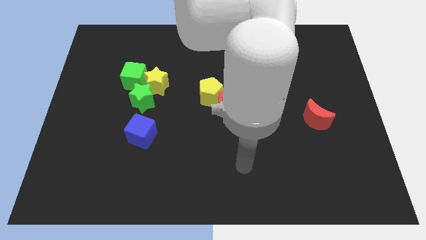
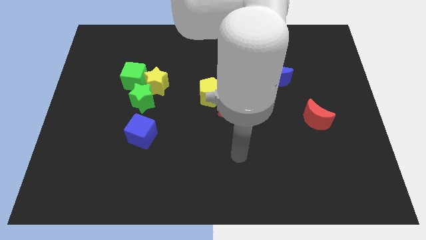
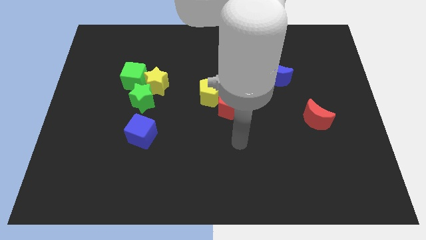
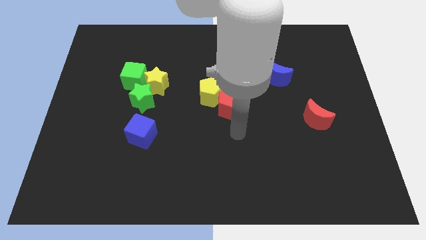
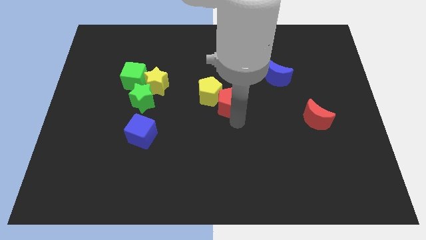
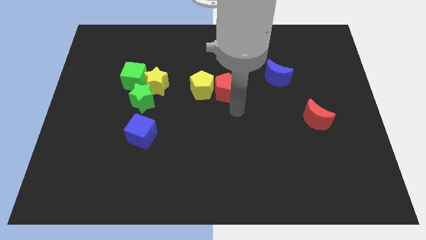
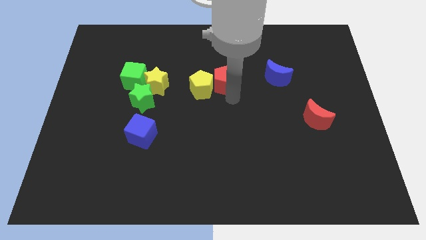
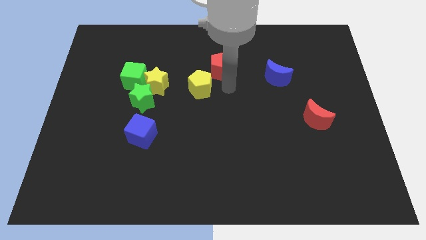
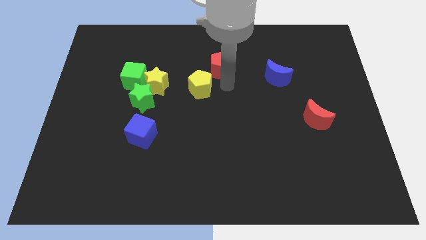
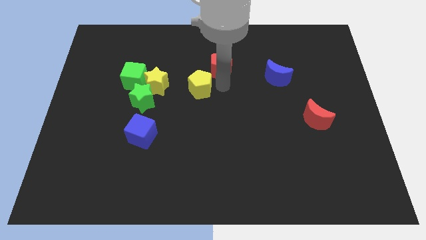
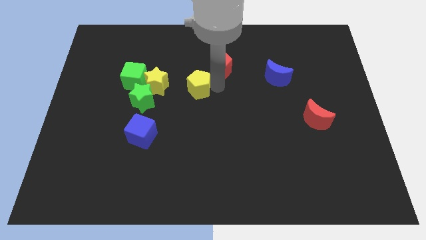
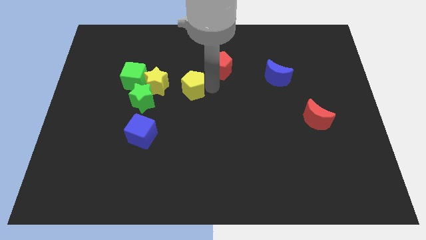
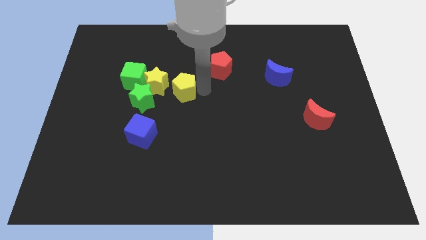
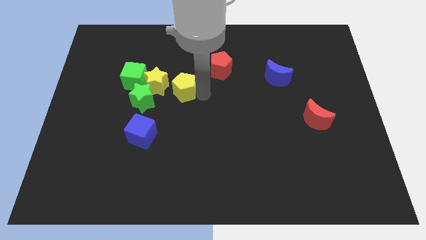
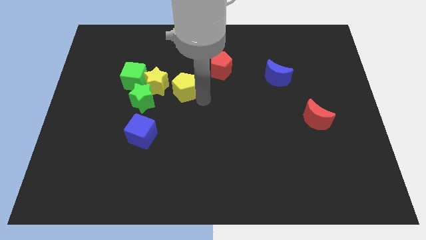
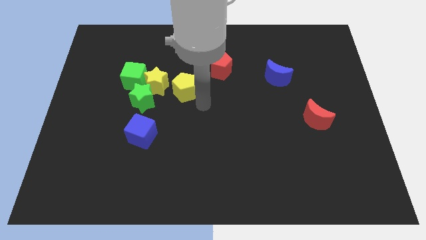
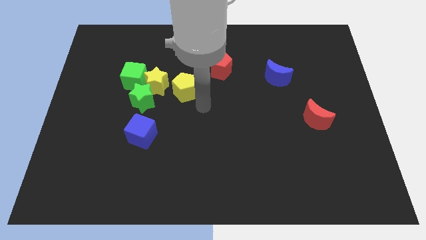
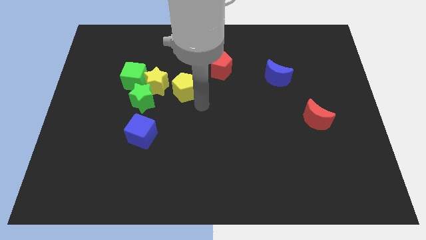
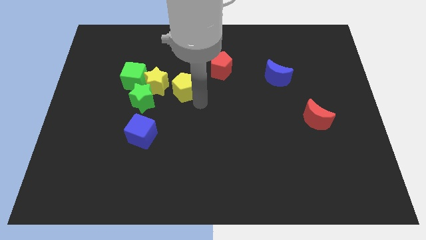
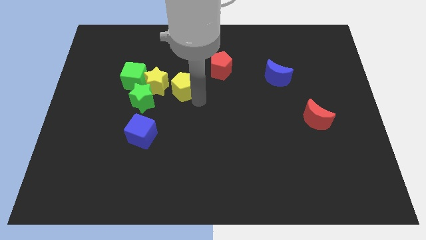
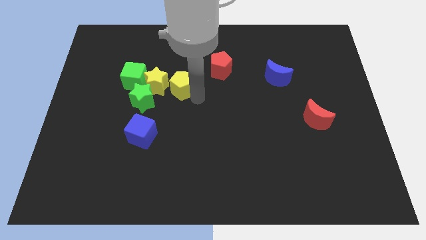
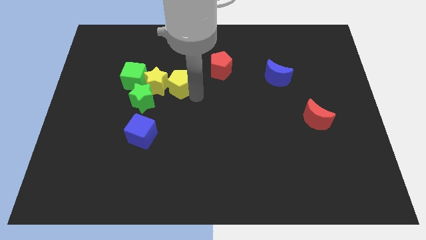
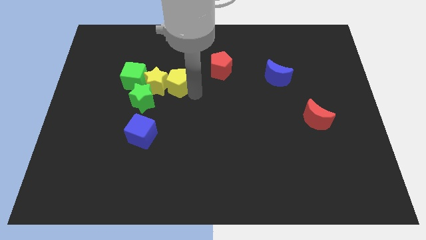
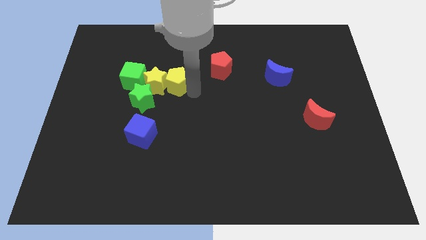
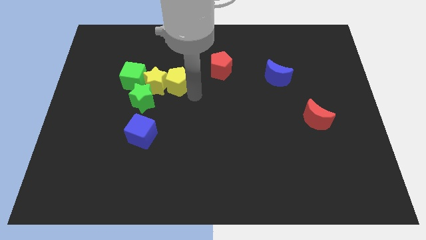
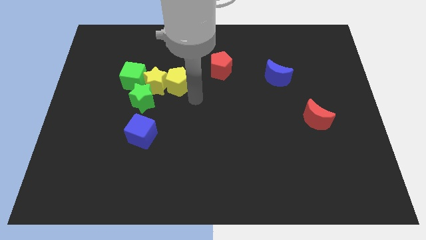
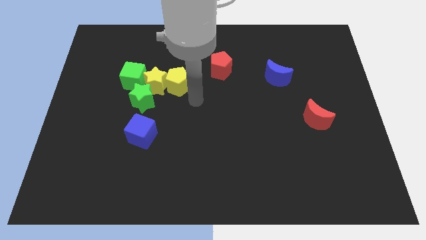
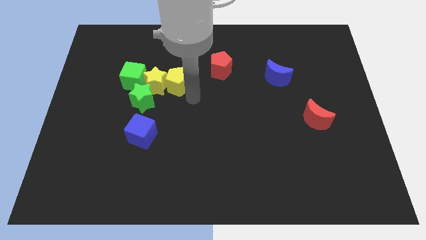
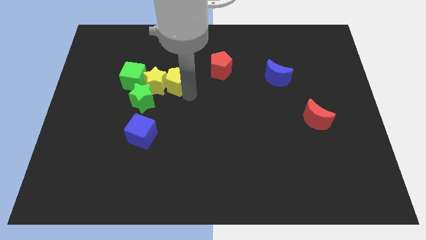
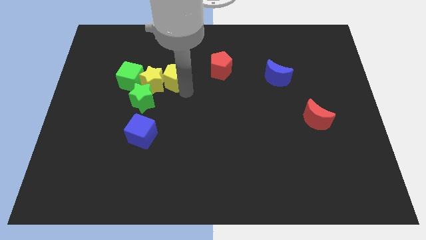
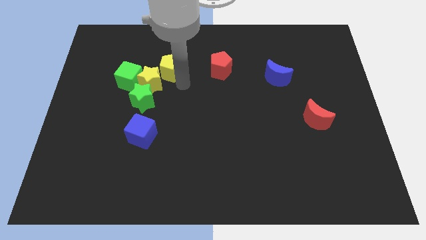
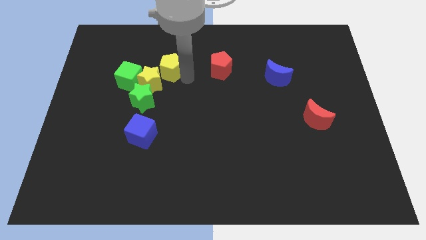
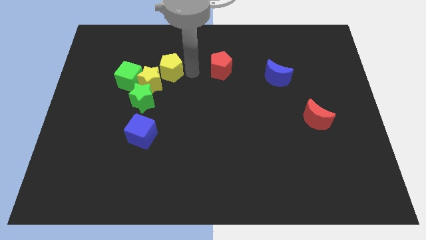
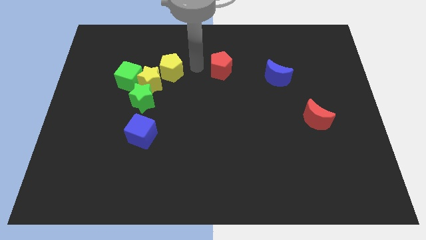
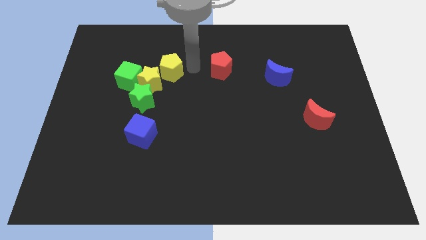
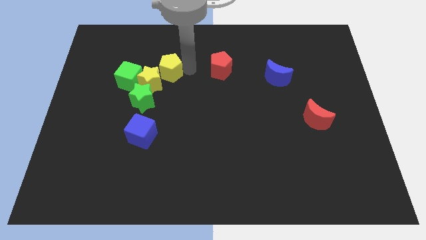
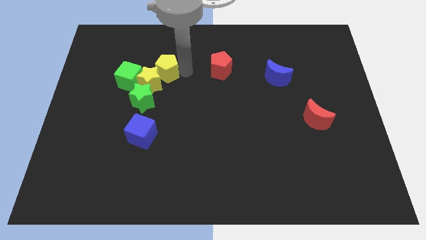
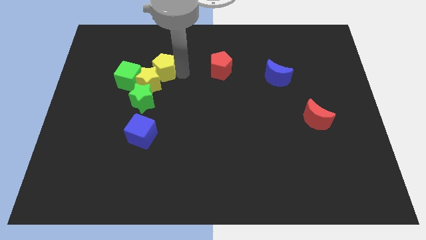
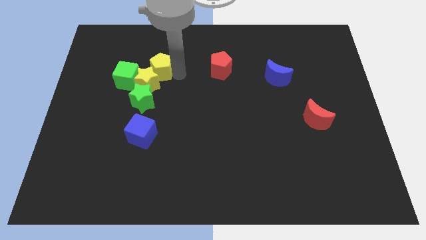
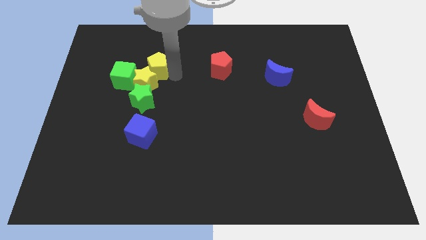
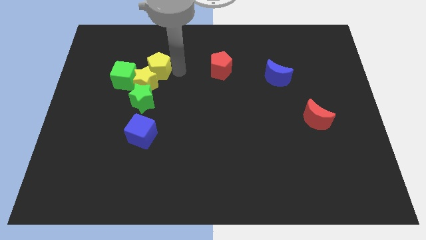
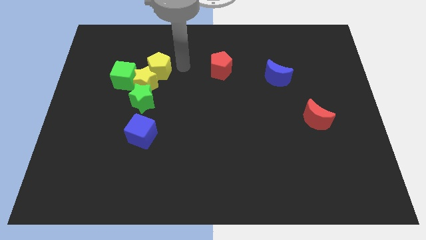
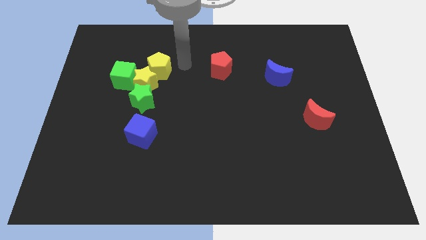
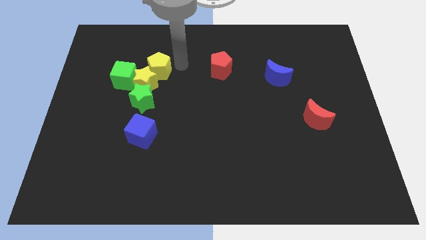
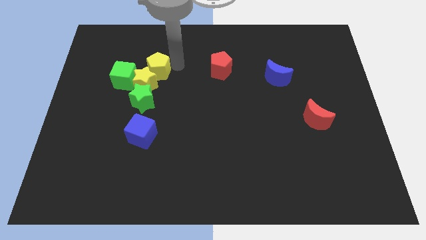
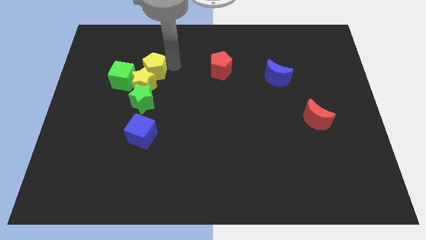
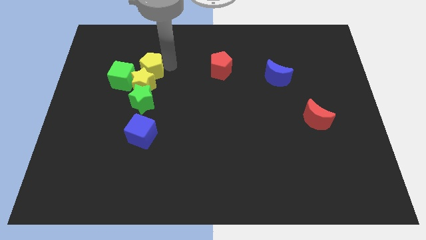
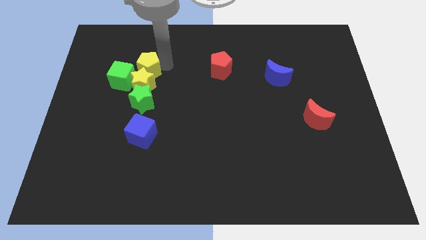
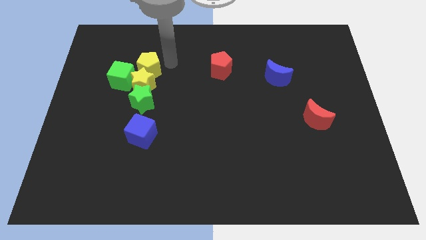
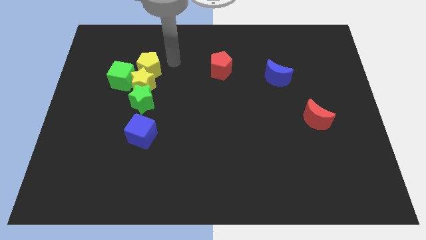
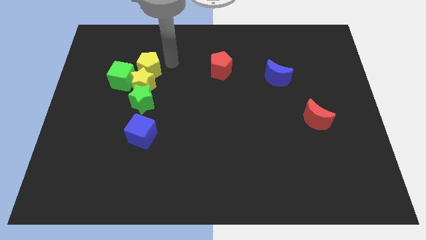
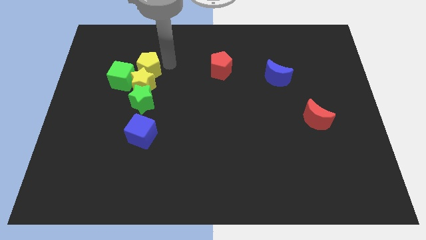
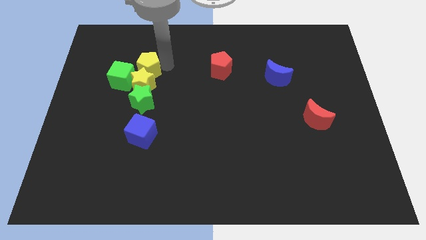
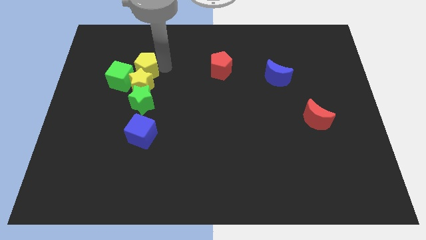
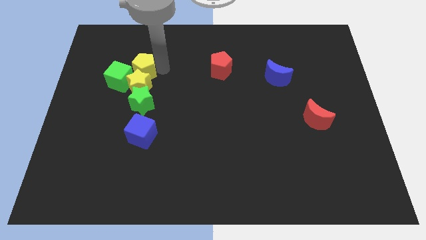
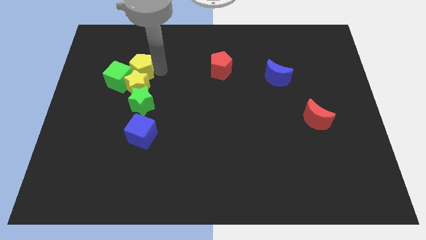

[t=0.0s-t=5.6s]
slide the yellow pentagon close to the green cube

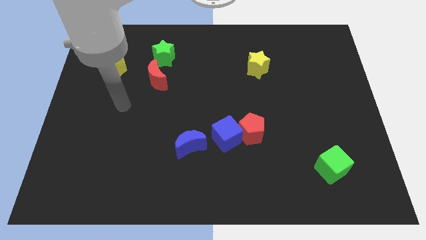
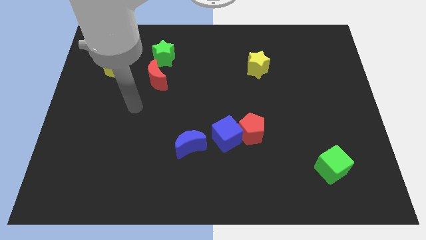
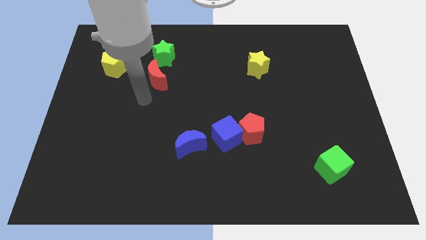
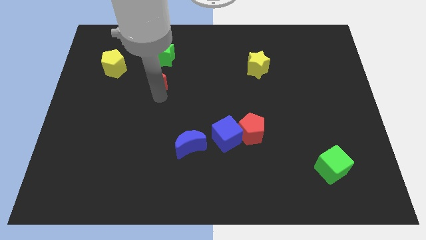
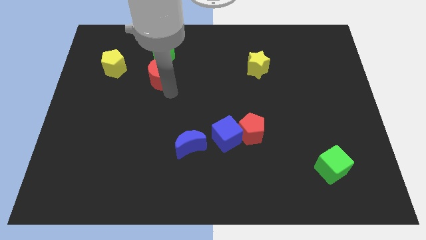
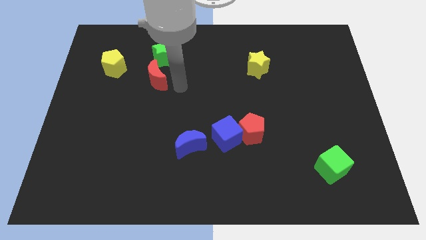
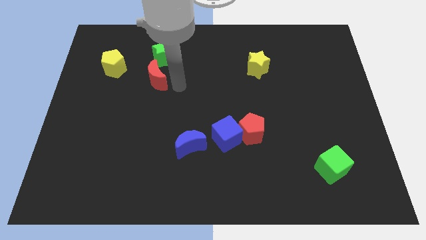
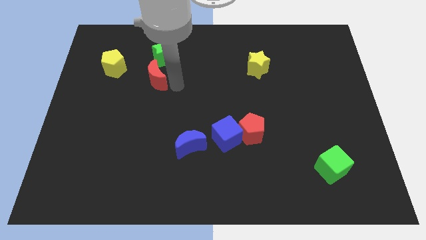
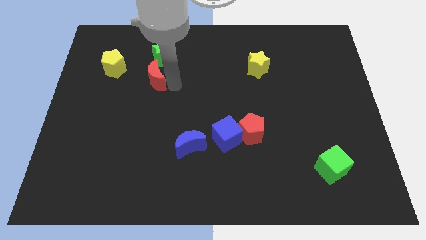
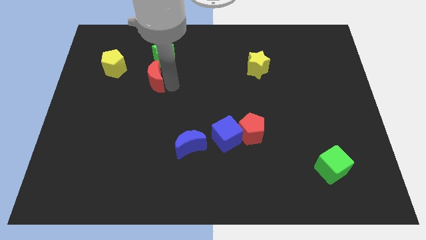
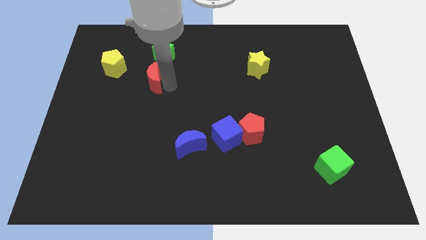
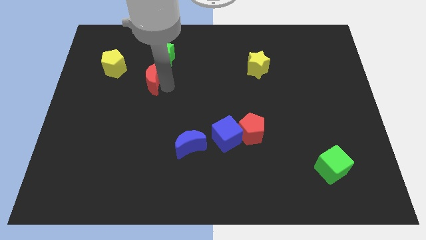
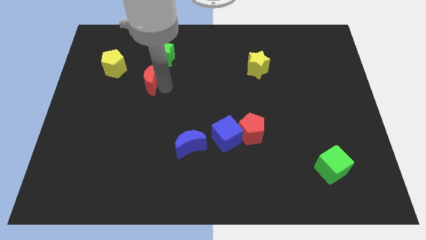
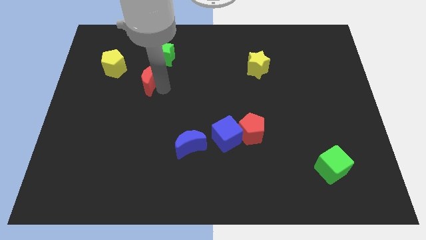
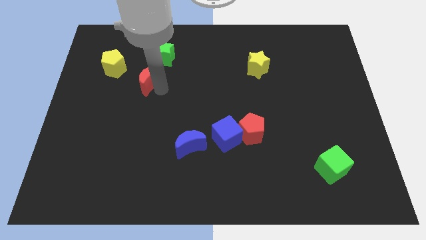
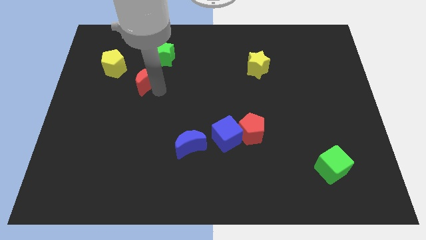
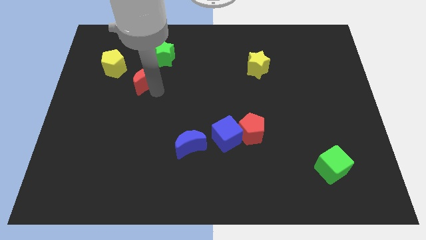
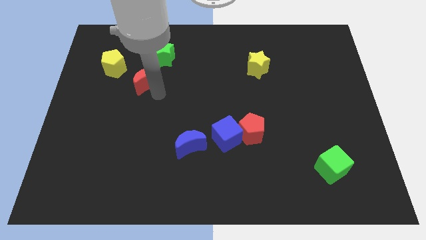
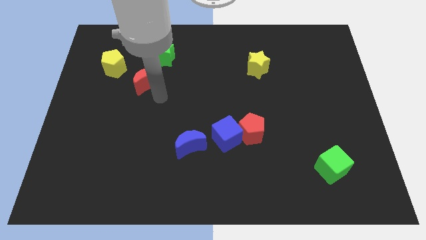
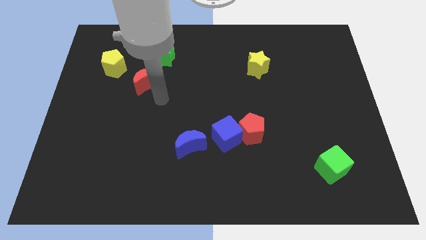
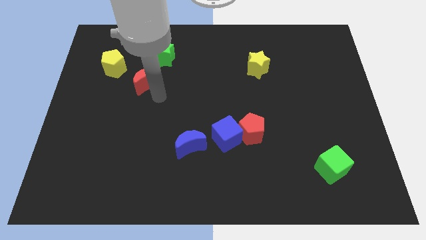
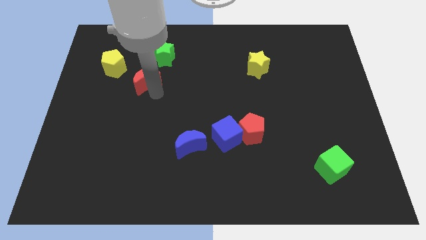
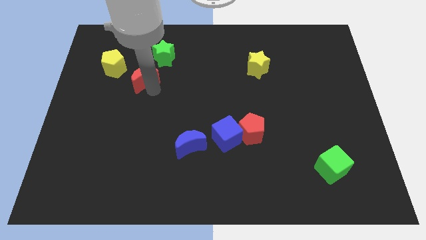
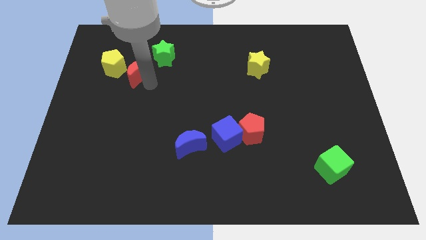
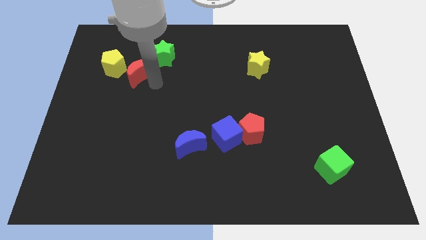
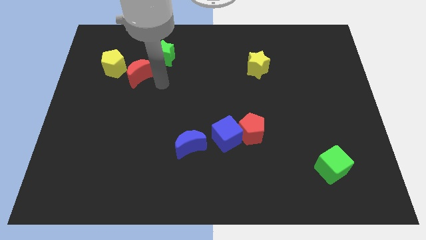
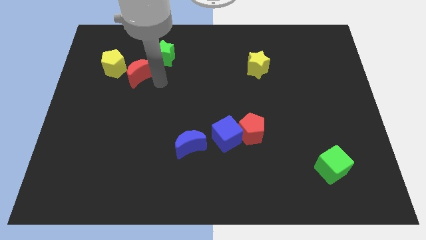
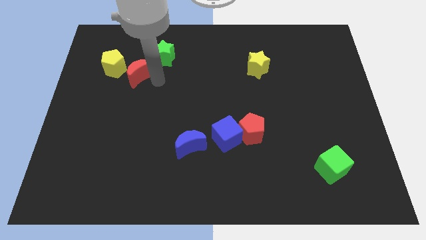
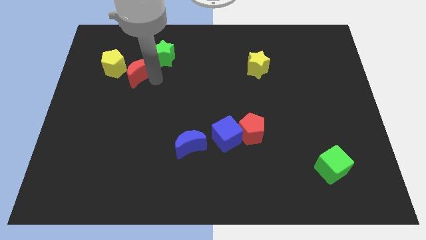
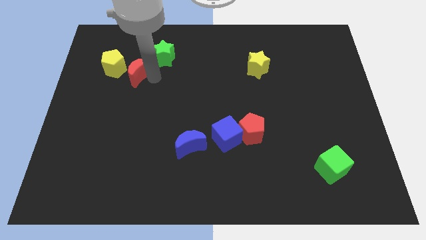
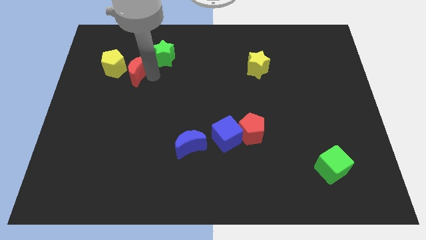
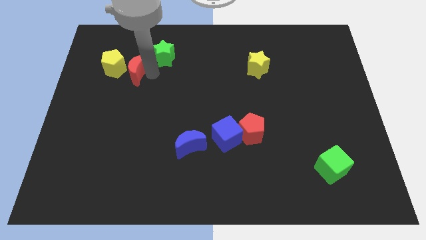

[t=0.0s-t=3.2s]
push the red moon close to the yellow pentagon
